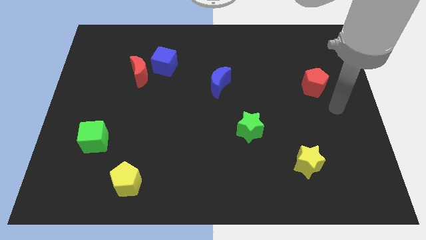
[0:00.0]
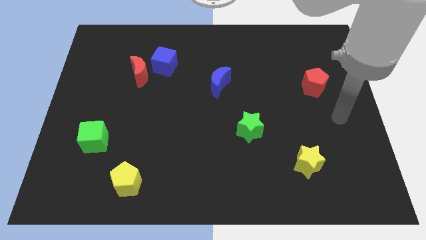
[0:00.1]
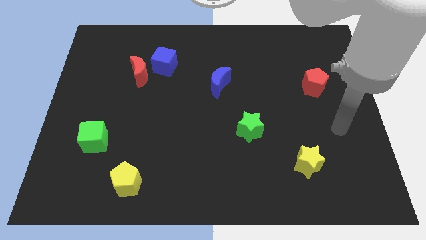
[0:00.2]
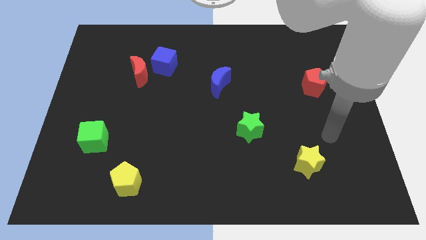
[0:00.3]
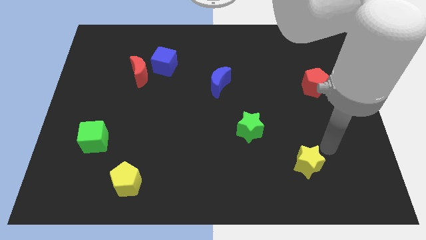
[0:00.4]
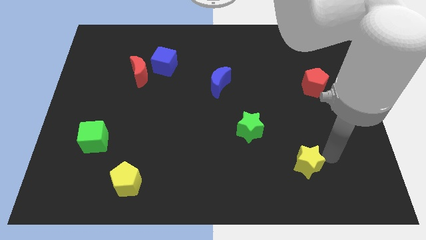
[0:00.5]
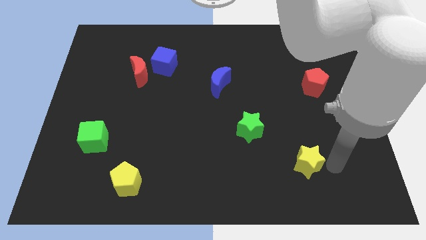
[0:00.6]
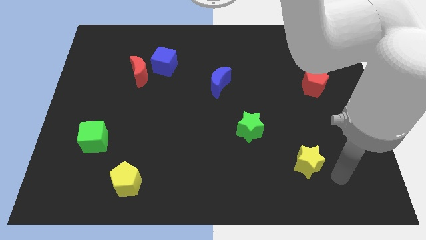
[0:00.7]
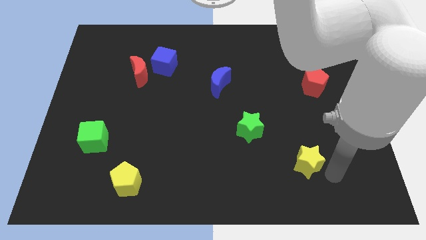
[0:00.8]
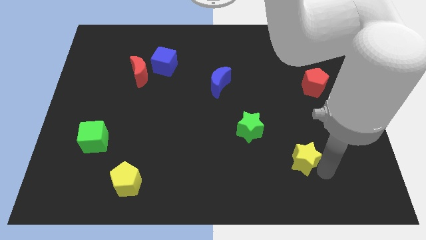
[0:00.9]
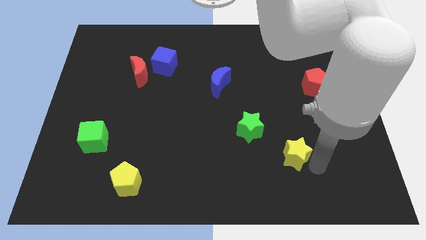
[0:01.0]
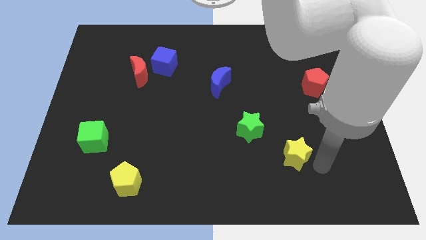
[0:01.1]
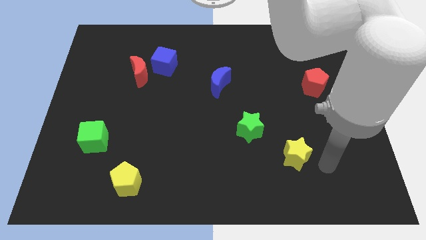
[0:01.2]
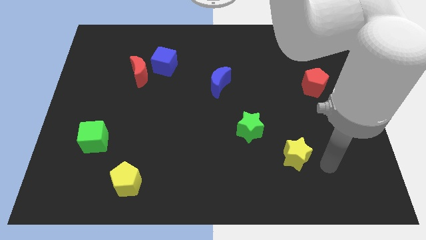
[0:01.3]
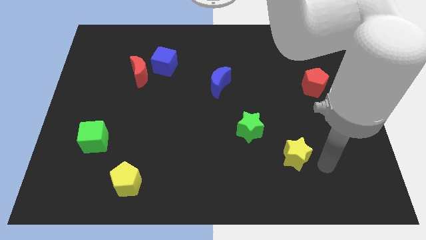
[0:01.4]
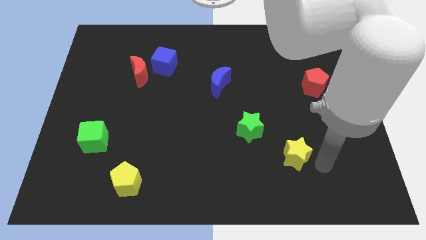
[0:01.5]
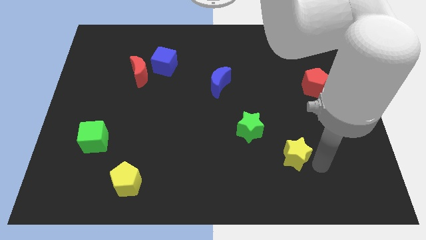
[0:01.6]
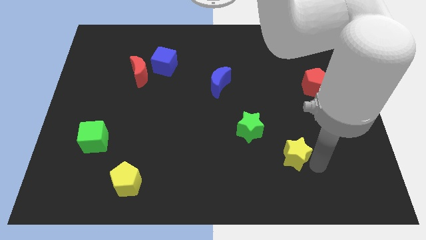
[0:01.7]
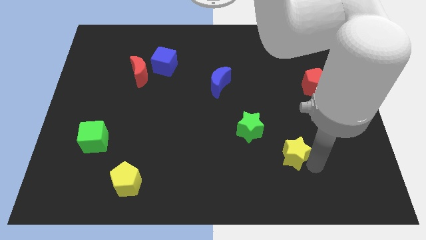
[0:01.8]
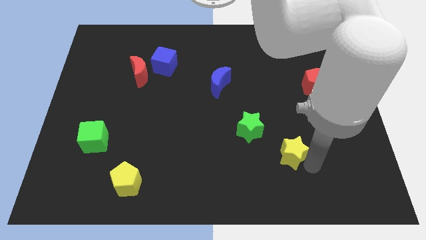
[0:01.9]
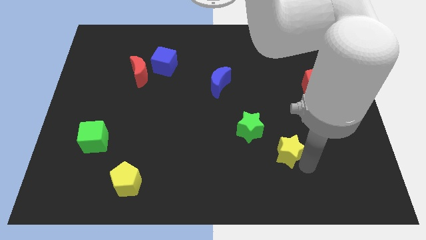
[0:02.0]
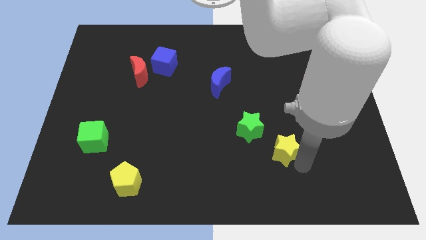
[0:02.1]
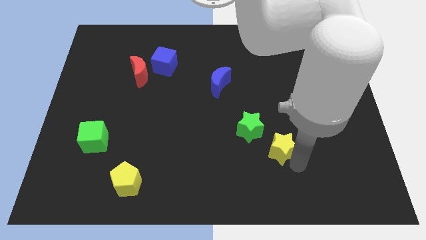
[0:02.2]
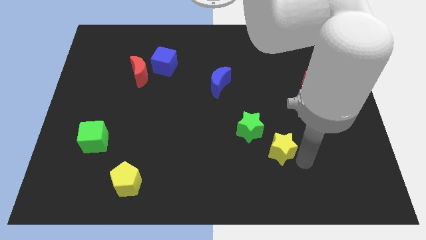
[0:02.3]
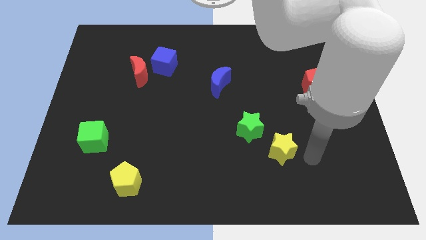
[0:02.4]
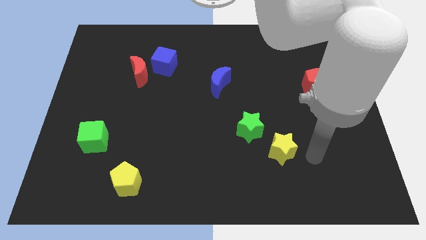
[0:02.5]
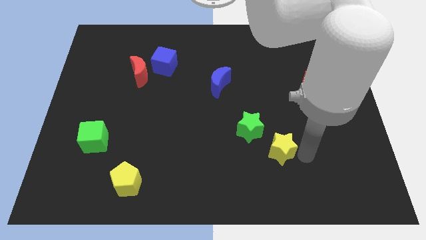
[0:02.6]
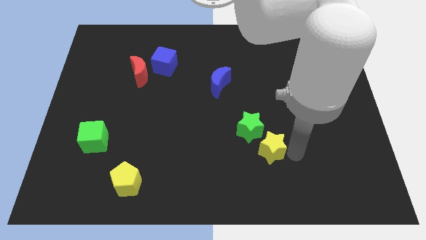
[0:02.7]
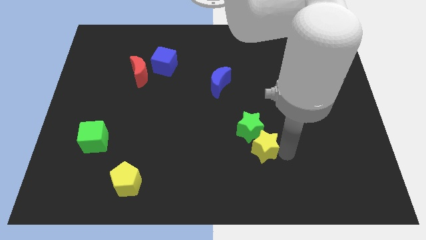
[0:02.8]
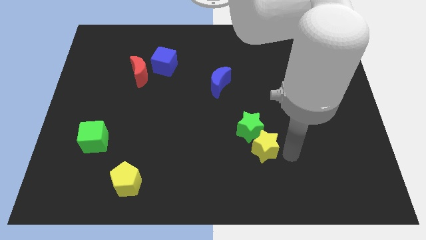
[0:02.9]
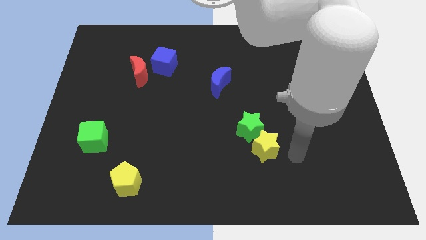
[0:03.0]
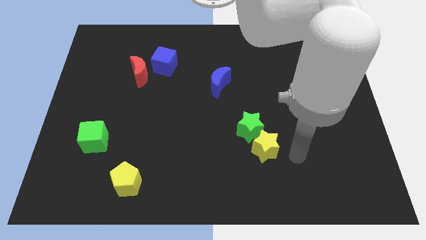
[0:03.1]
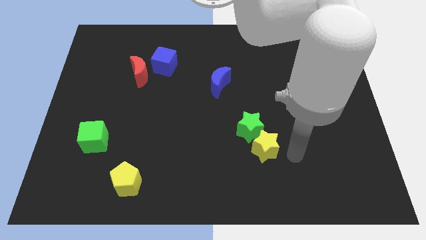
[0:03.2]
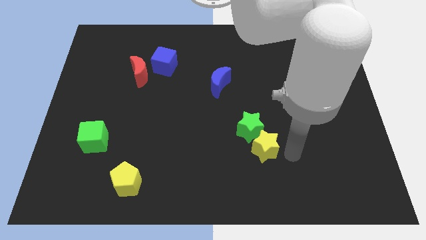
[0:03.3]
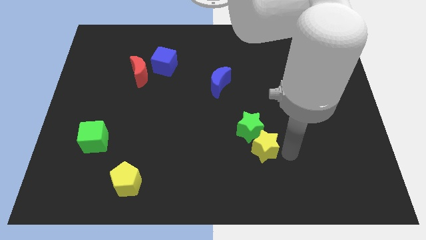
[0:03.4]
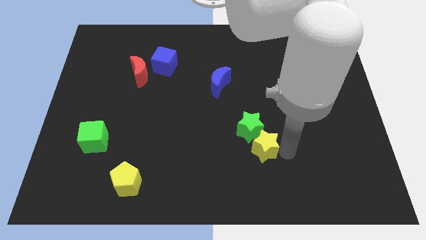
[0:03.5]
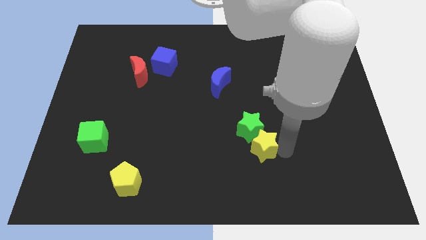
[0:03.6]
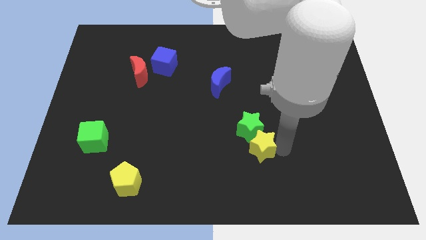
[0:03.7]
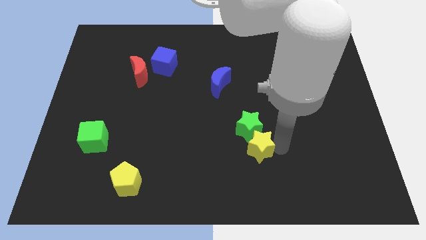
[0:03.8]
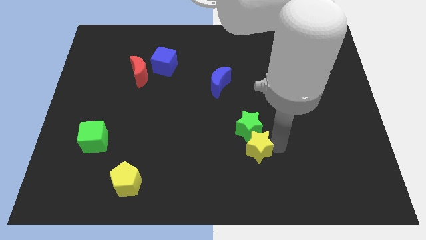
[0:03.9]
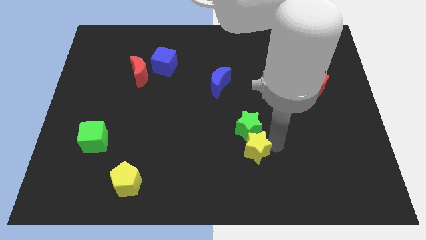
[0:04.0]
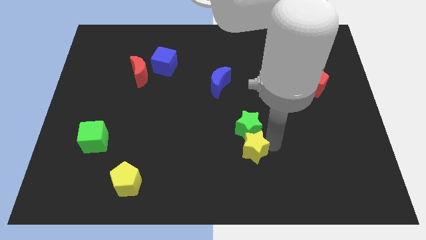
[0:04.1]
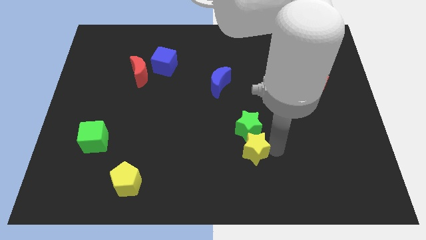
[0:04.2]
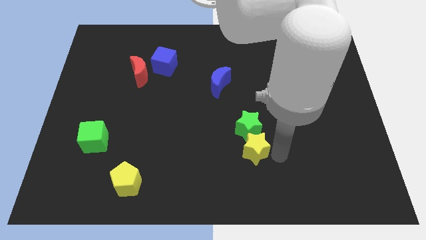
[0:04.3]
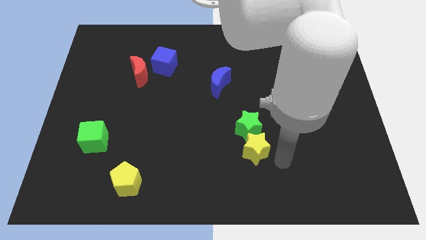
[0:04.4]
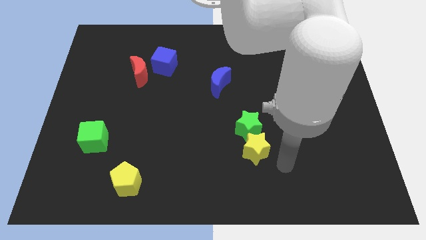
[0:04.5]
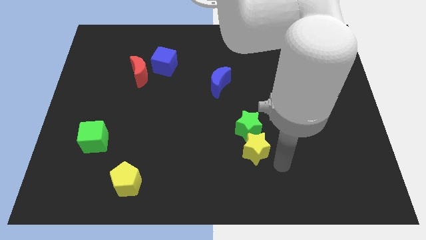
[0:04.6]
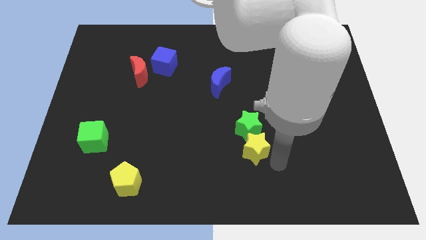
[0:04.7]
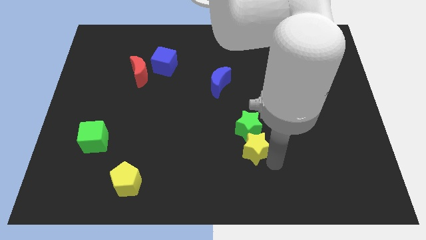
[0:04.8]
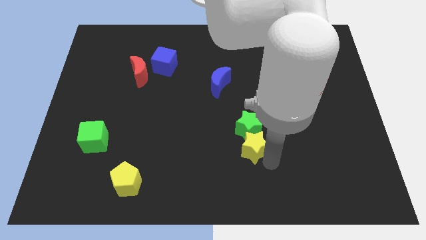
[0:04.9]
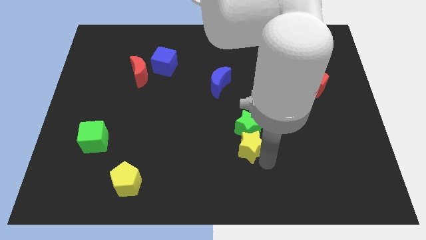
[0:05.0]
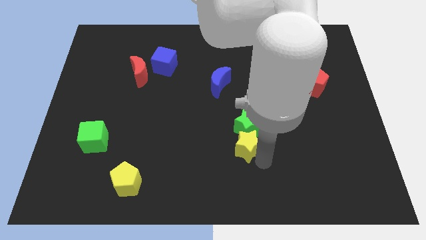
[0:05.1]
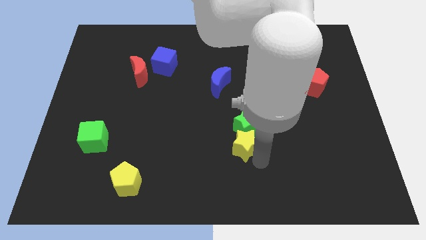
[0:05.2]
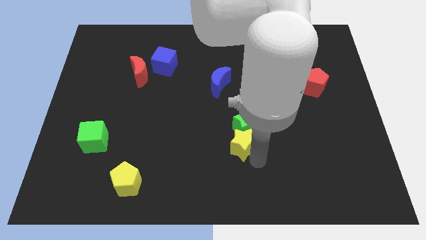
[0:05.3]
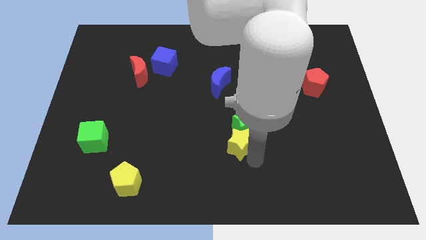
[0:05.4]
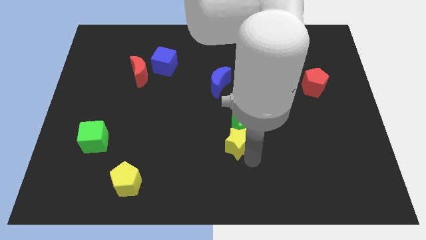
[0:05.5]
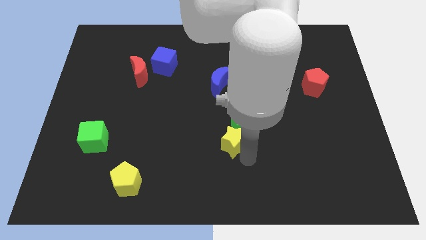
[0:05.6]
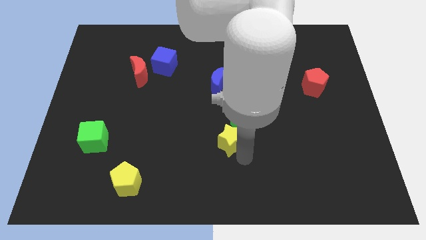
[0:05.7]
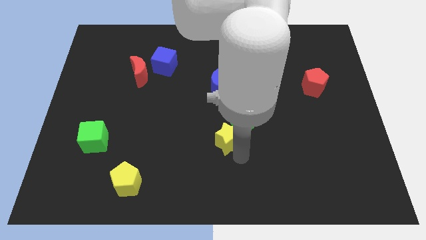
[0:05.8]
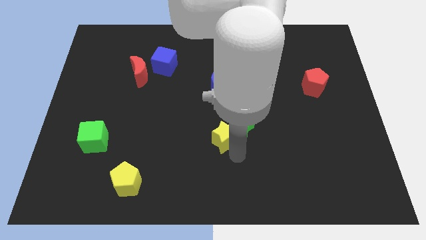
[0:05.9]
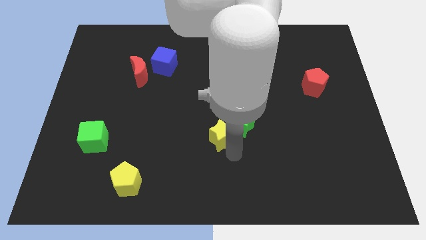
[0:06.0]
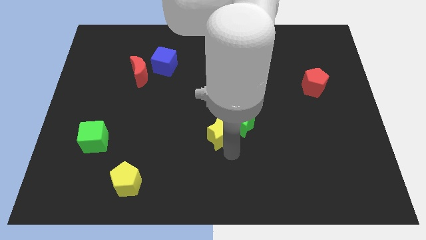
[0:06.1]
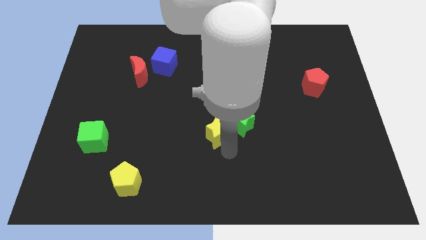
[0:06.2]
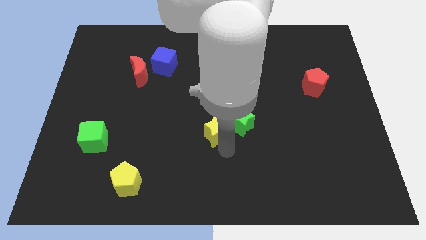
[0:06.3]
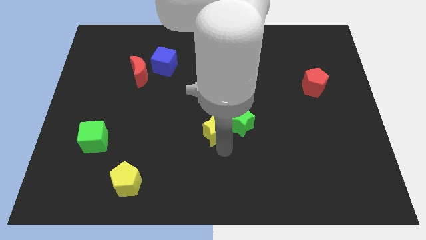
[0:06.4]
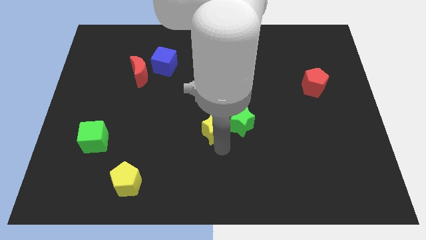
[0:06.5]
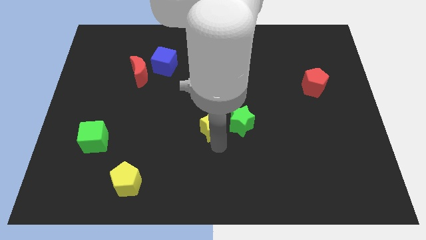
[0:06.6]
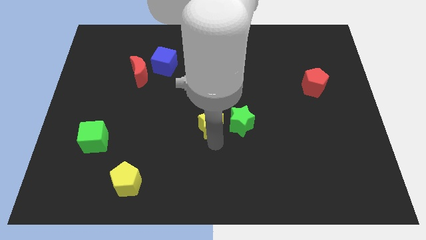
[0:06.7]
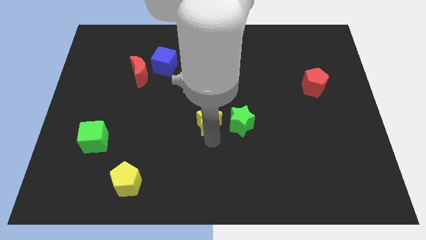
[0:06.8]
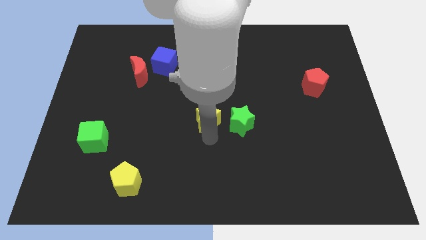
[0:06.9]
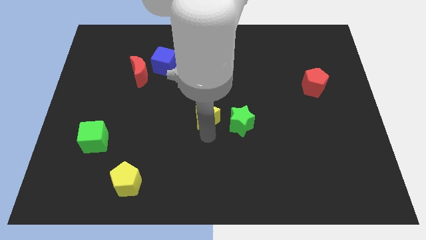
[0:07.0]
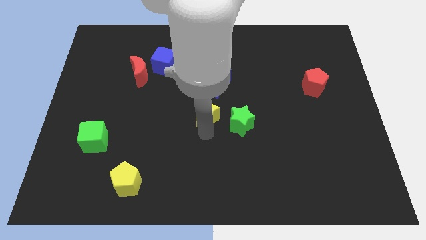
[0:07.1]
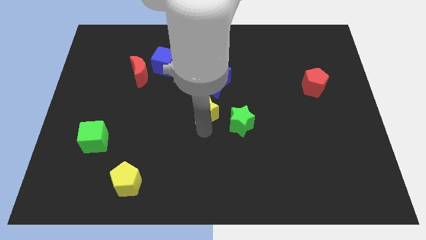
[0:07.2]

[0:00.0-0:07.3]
push the yellow star to the bottom left side of the blue moon
